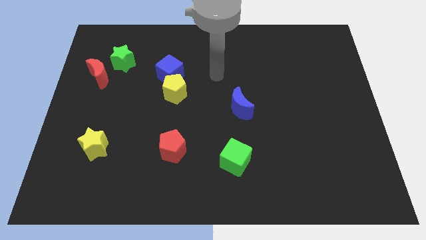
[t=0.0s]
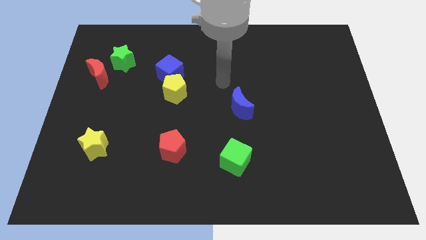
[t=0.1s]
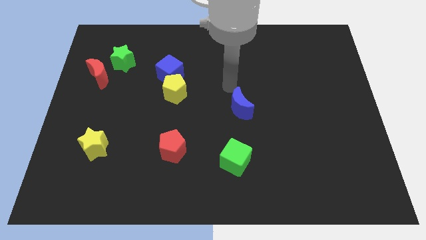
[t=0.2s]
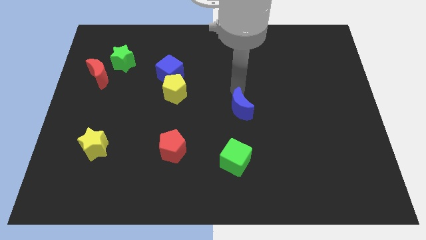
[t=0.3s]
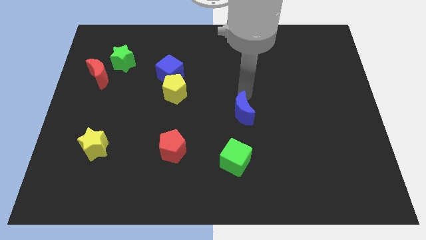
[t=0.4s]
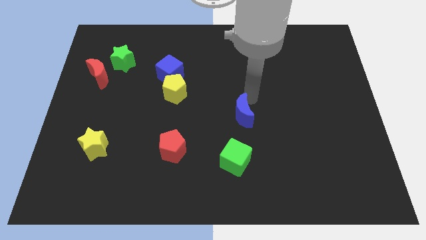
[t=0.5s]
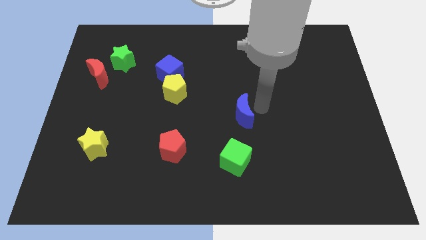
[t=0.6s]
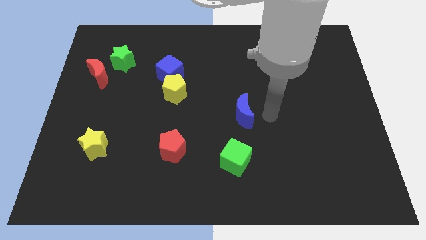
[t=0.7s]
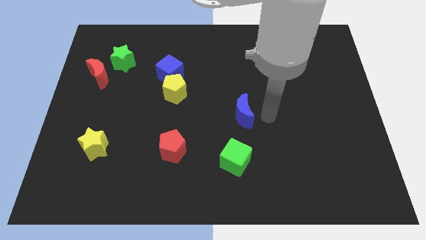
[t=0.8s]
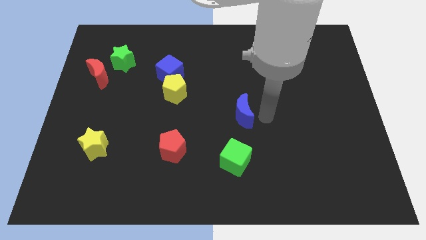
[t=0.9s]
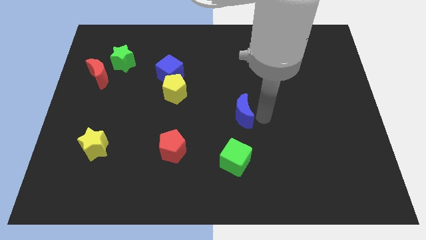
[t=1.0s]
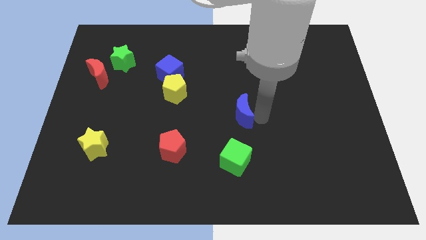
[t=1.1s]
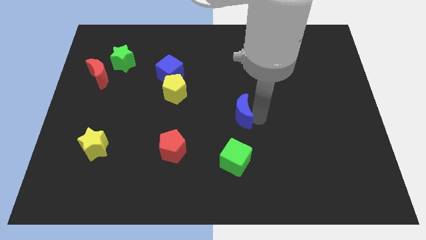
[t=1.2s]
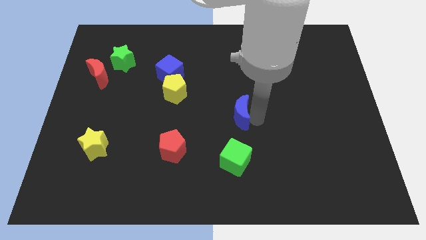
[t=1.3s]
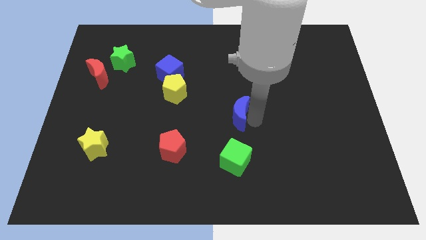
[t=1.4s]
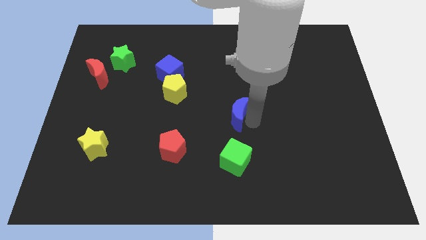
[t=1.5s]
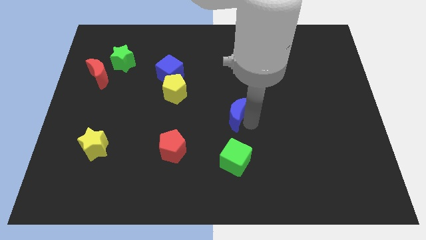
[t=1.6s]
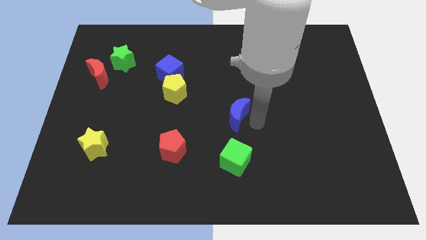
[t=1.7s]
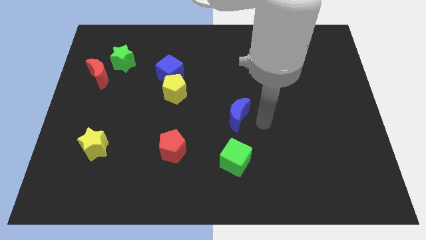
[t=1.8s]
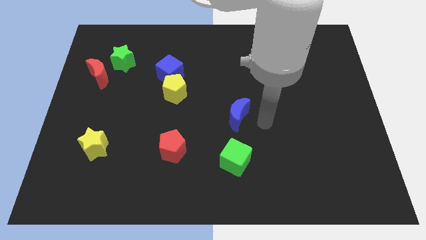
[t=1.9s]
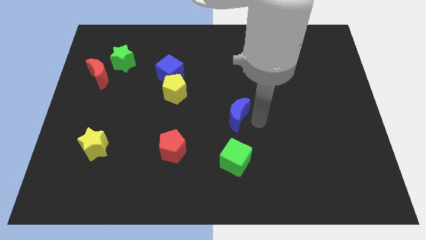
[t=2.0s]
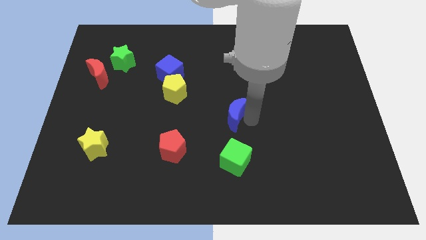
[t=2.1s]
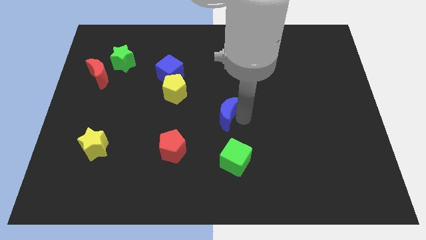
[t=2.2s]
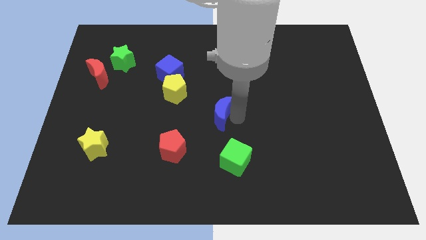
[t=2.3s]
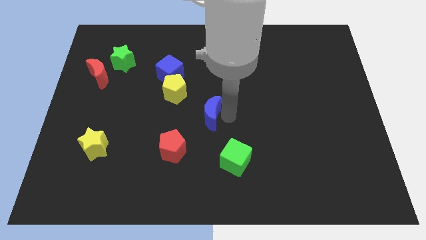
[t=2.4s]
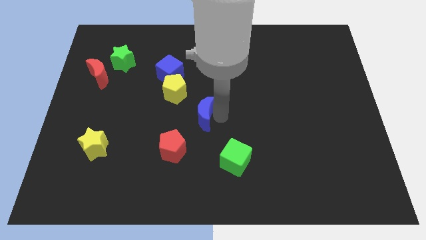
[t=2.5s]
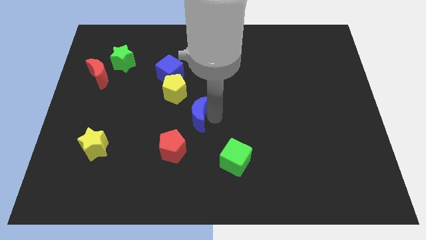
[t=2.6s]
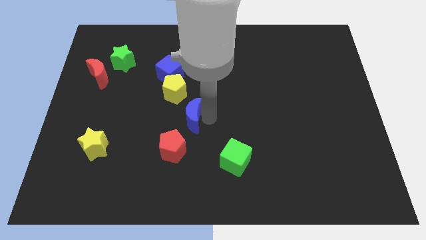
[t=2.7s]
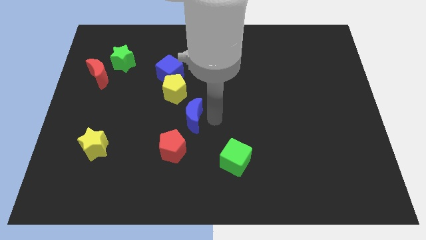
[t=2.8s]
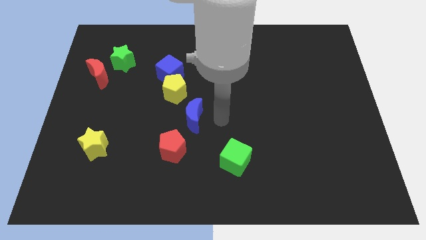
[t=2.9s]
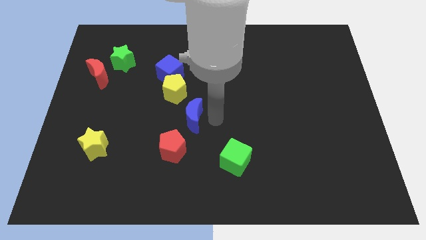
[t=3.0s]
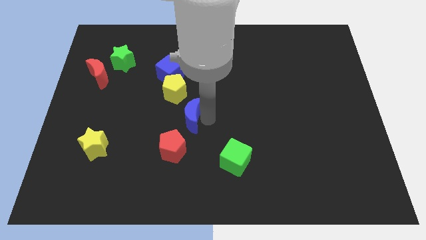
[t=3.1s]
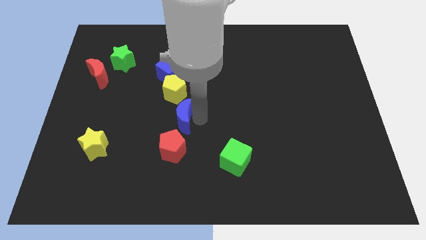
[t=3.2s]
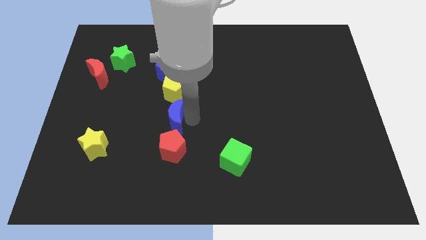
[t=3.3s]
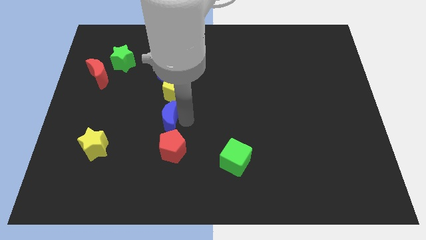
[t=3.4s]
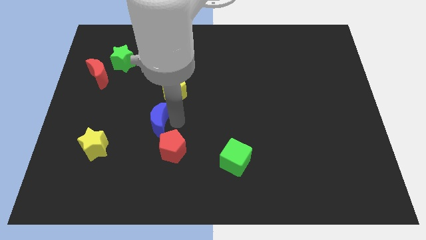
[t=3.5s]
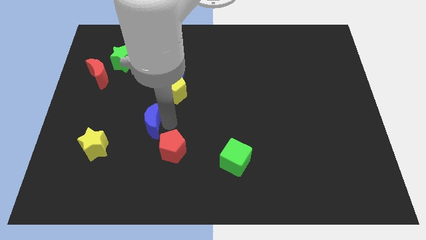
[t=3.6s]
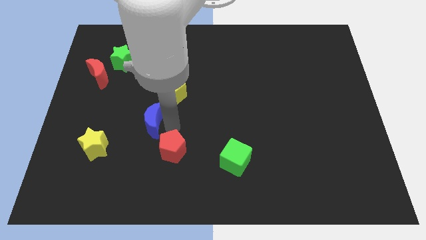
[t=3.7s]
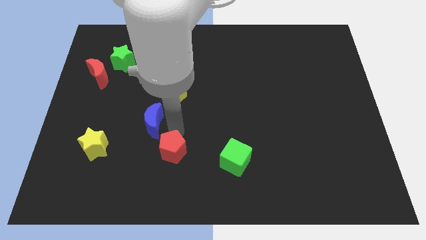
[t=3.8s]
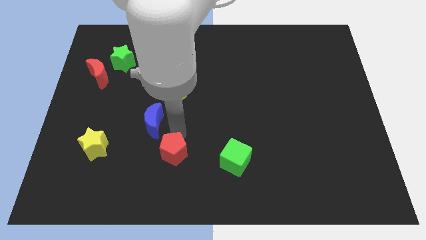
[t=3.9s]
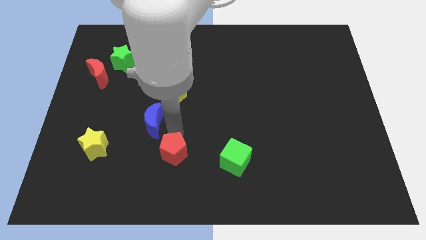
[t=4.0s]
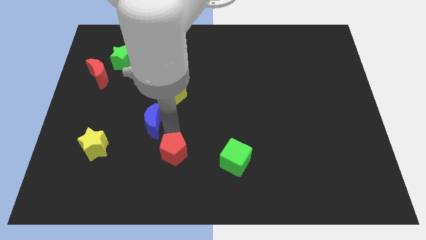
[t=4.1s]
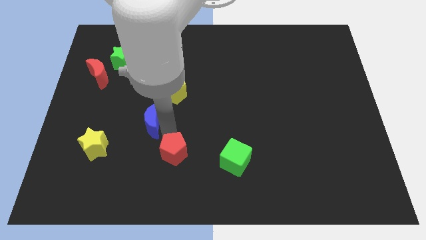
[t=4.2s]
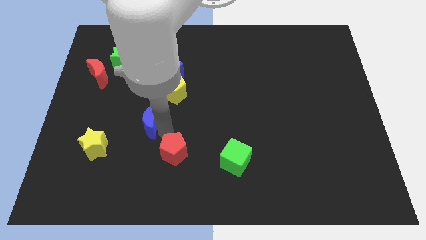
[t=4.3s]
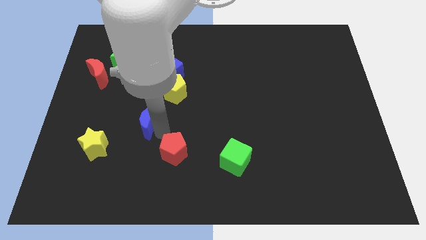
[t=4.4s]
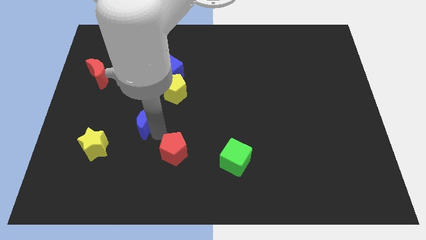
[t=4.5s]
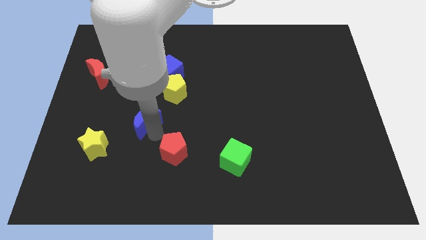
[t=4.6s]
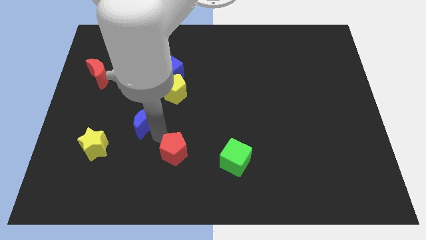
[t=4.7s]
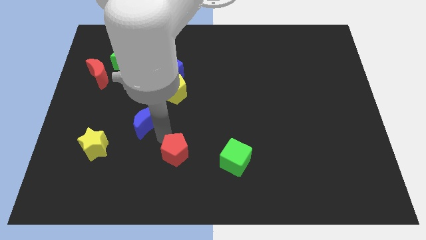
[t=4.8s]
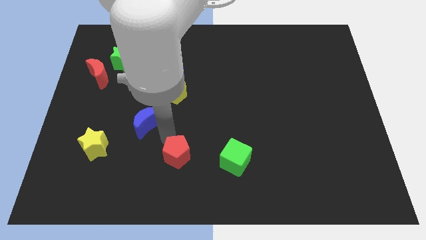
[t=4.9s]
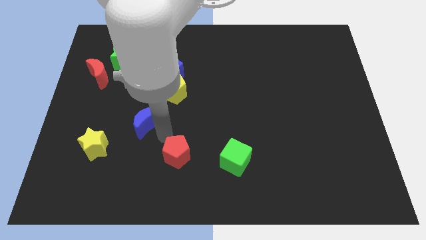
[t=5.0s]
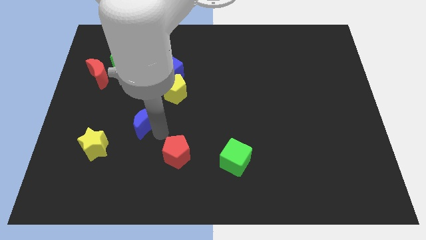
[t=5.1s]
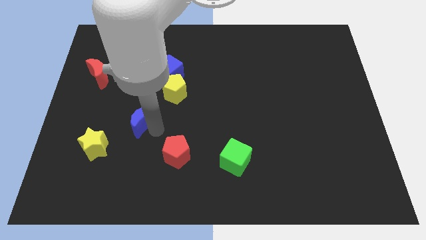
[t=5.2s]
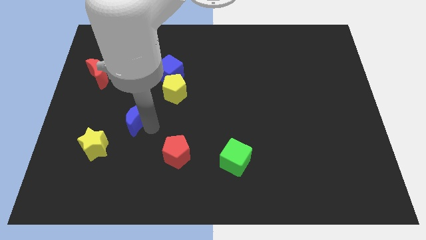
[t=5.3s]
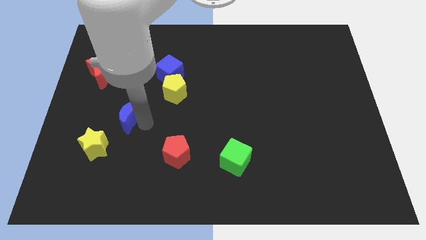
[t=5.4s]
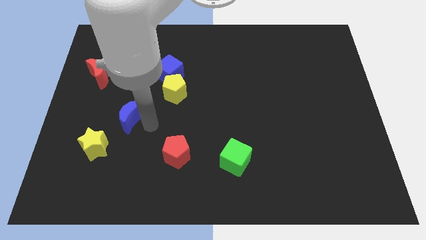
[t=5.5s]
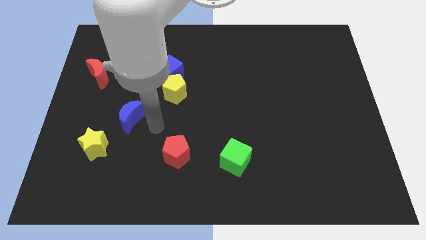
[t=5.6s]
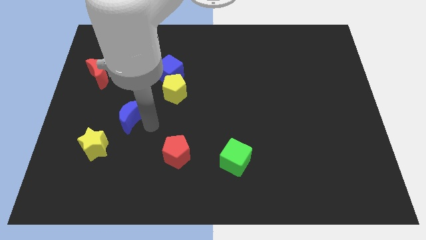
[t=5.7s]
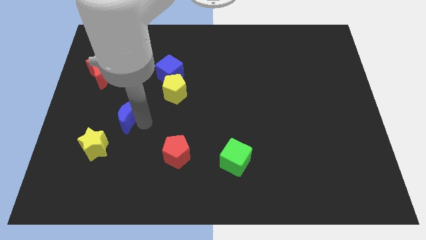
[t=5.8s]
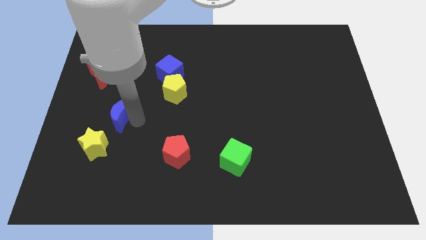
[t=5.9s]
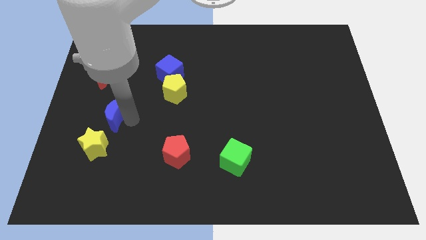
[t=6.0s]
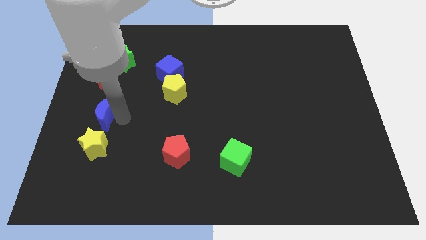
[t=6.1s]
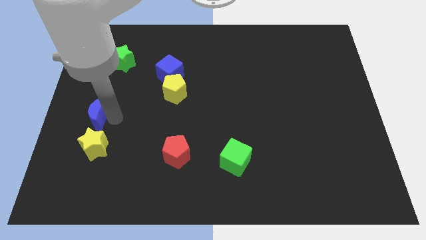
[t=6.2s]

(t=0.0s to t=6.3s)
put the blue moon to the center left
